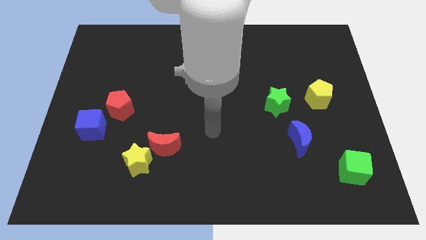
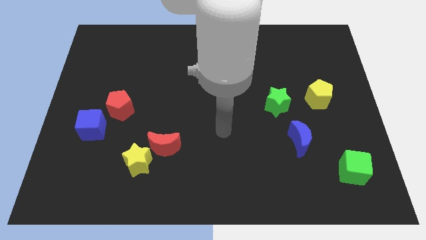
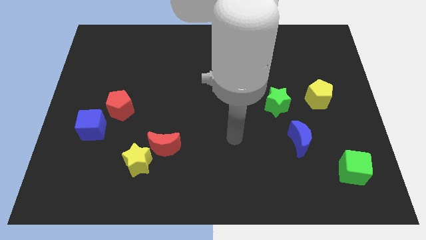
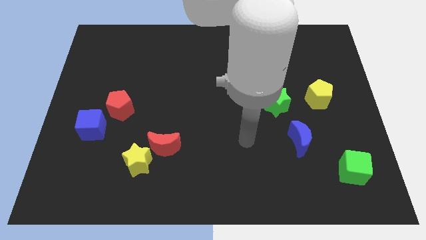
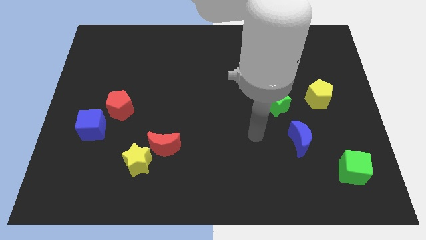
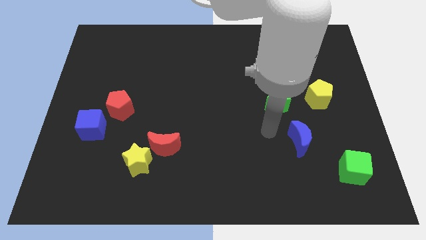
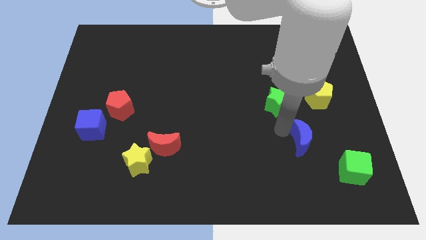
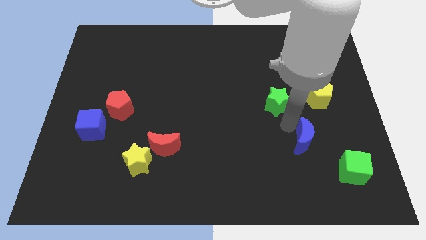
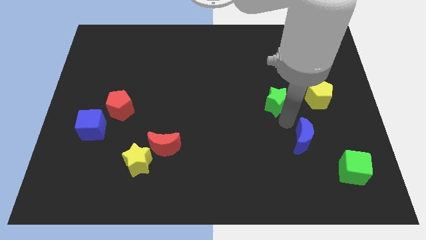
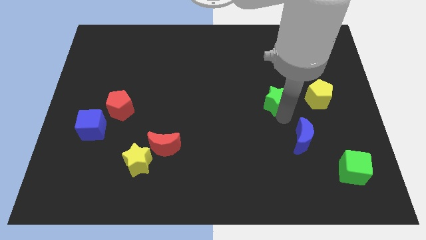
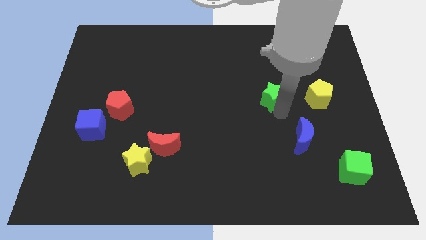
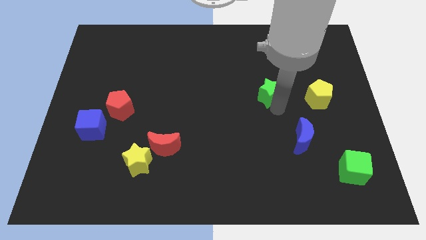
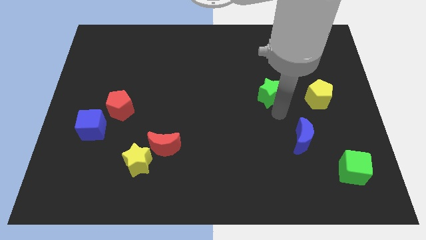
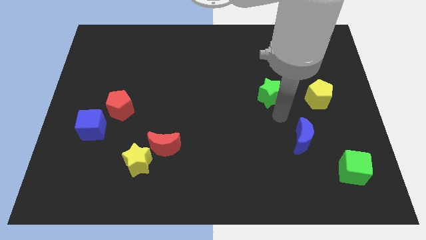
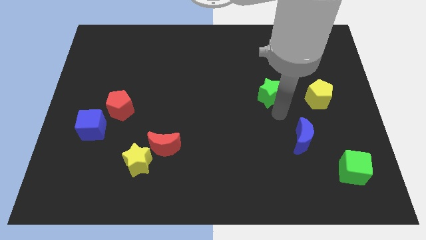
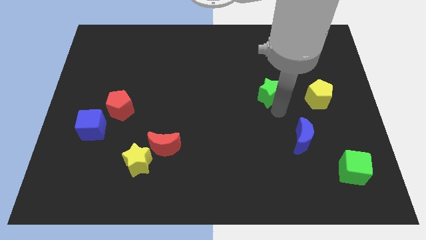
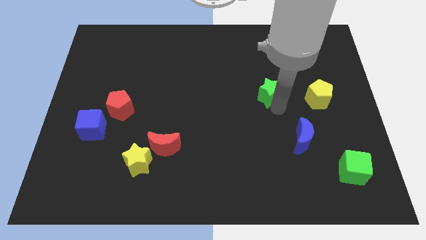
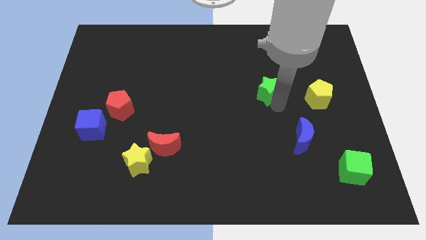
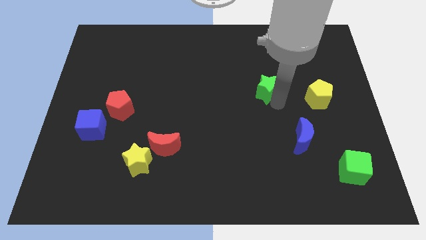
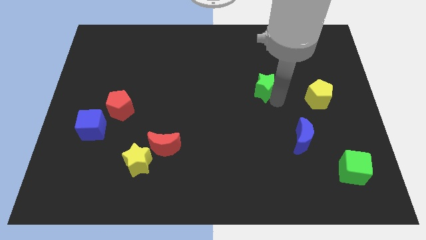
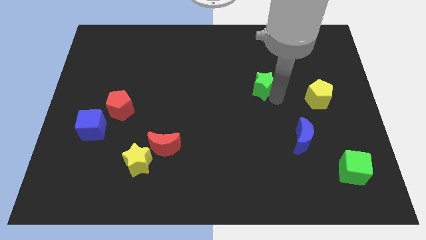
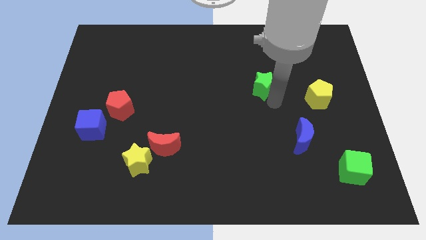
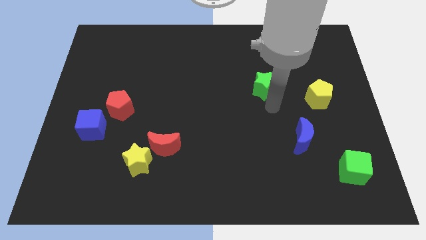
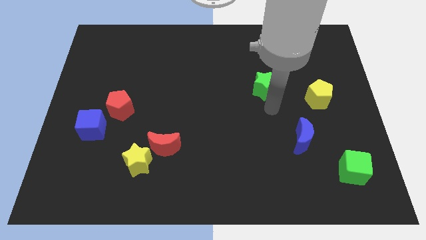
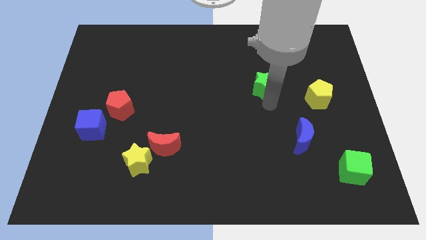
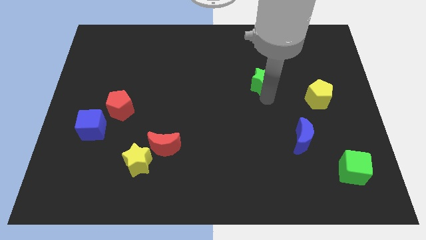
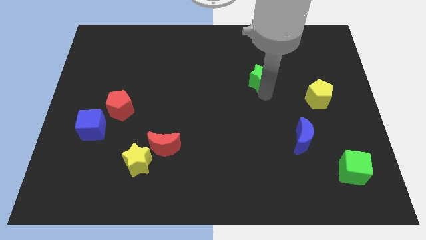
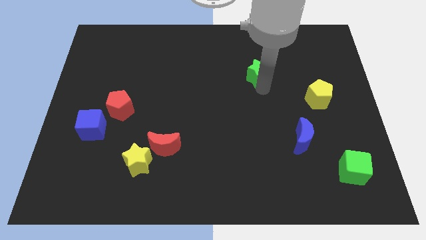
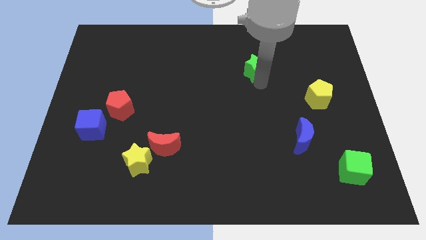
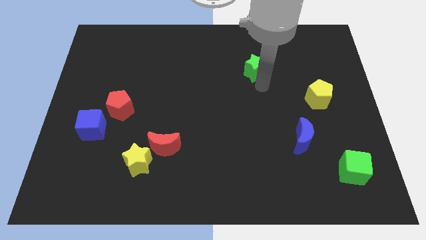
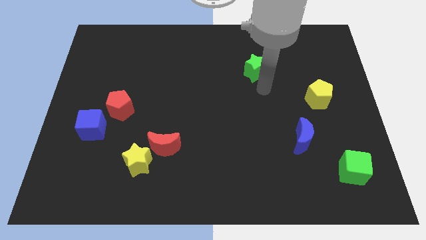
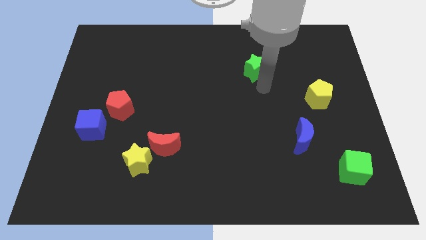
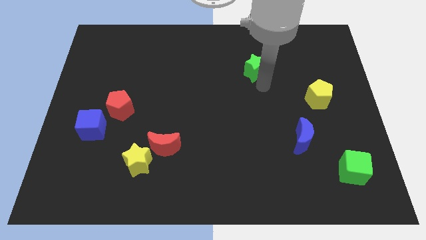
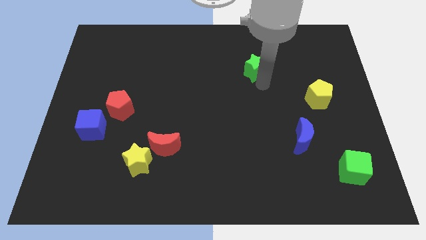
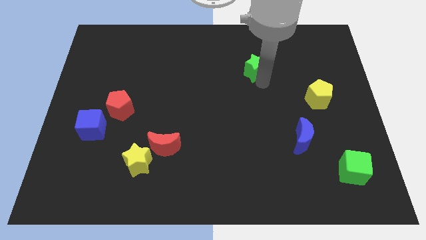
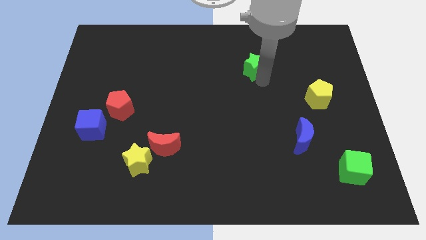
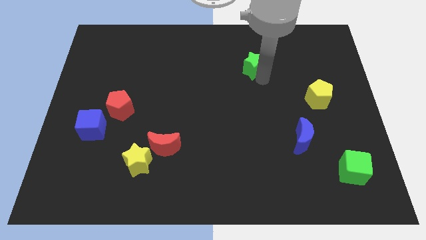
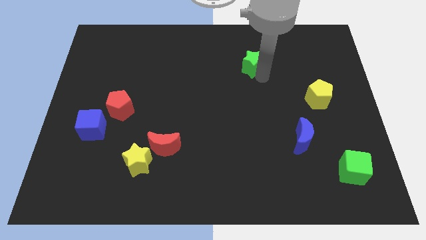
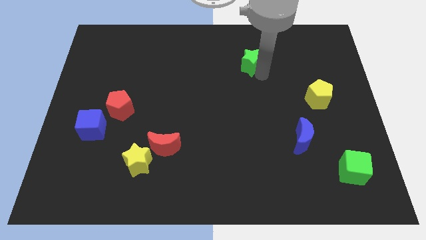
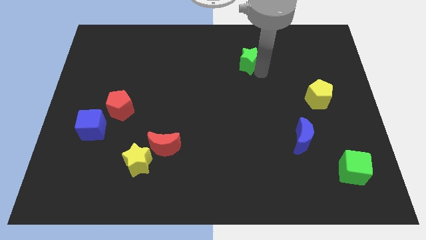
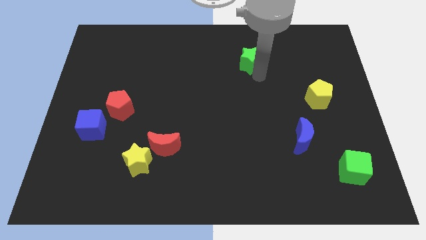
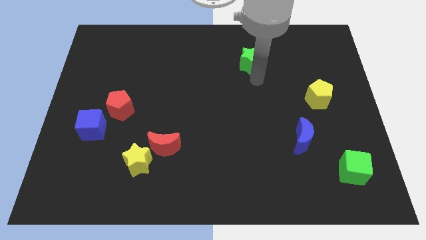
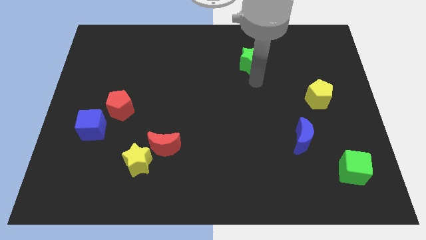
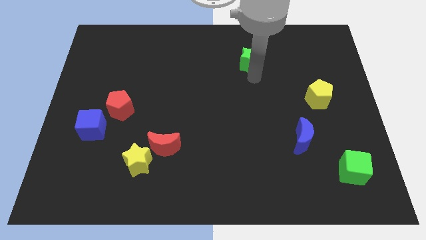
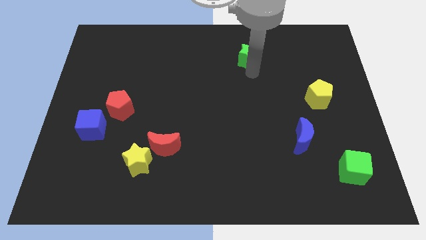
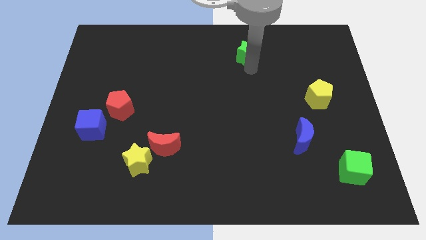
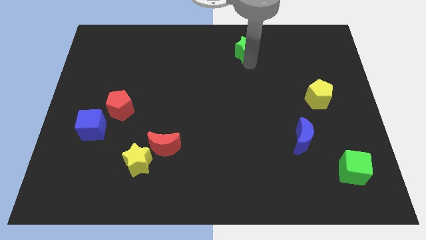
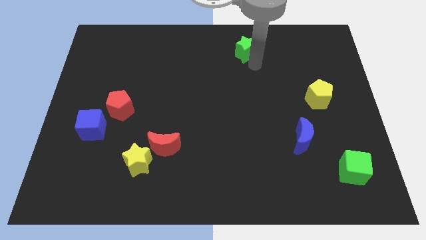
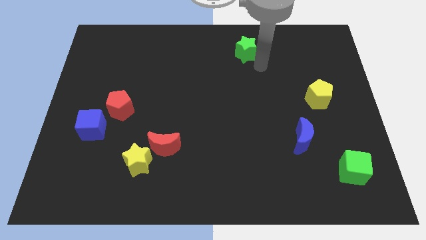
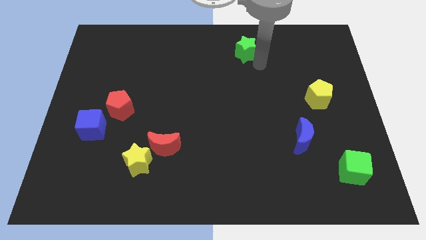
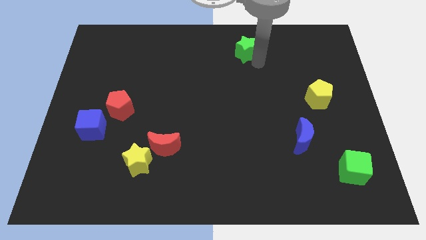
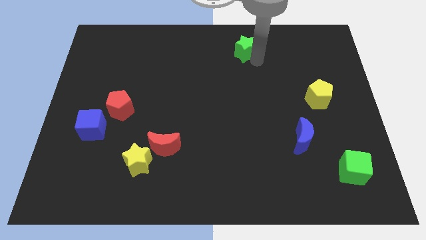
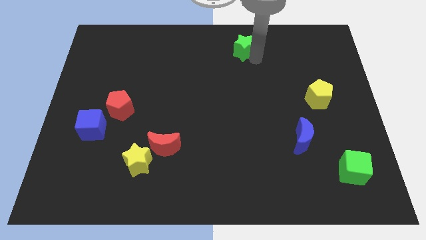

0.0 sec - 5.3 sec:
push the green star to the top

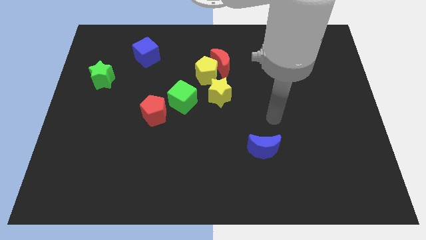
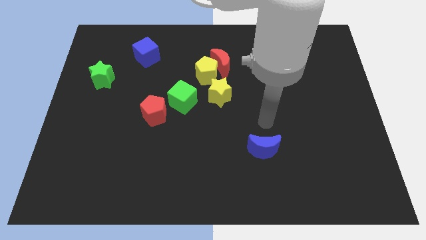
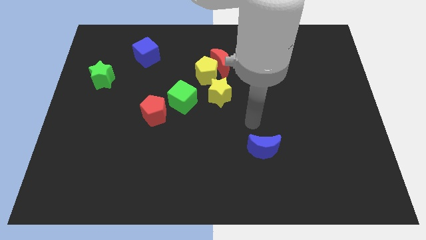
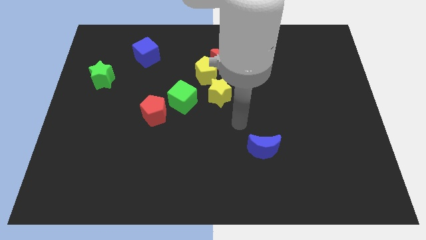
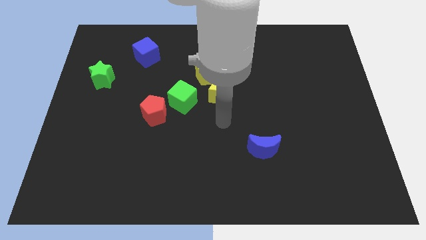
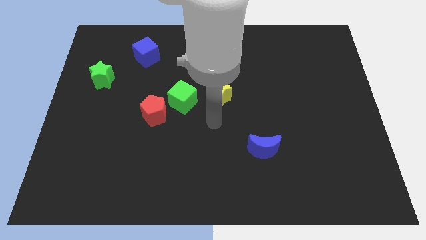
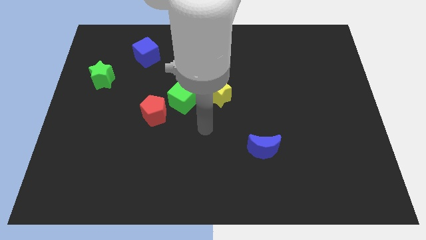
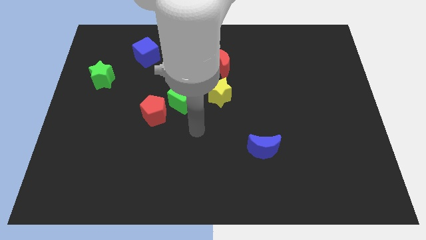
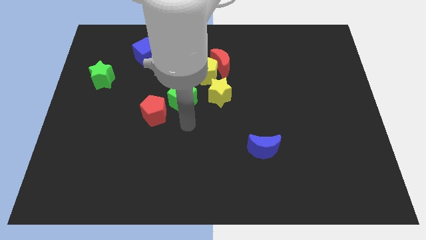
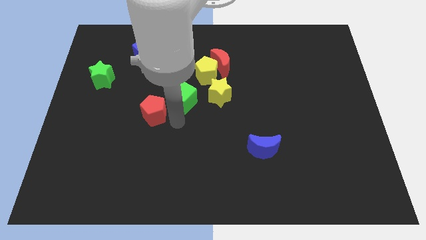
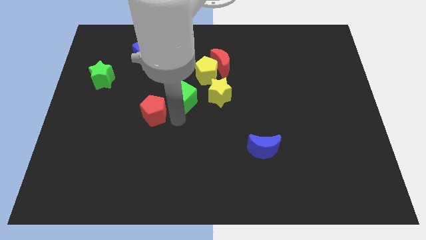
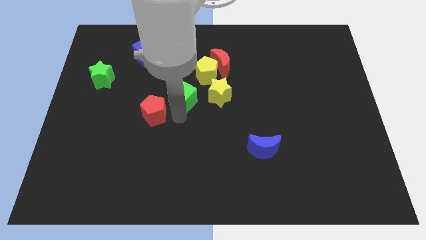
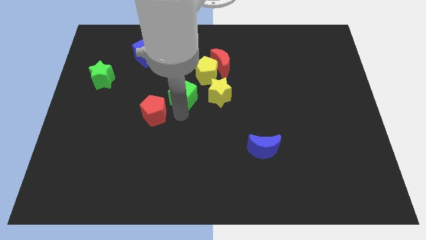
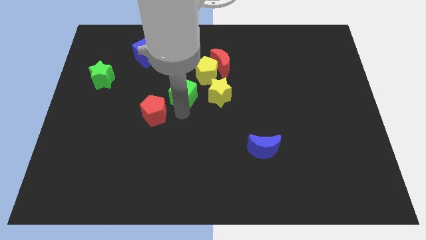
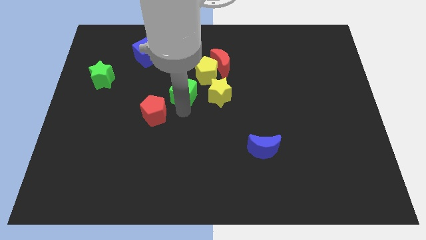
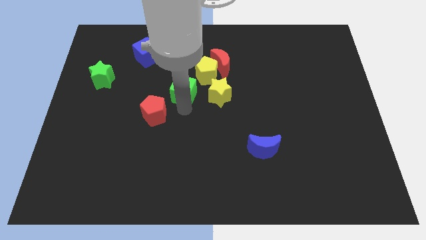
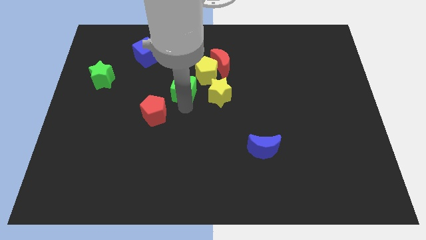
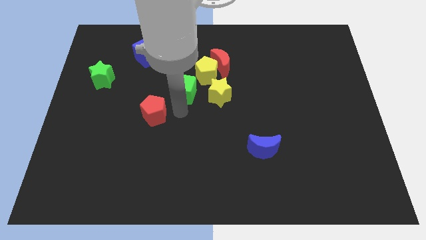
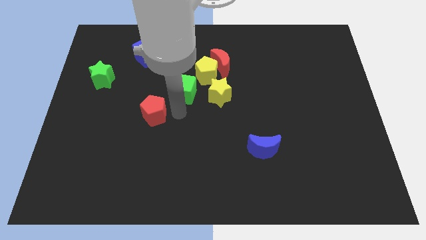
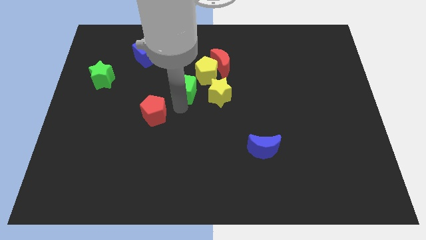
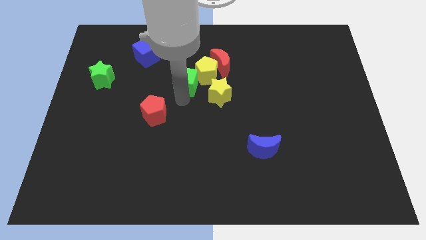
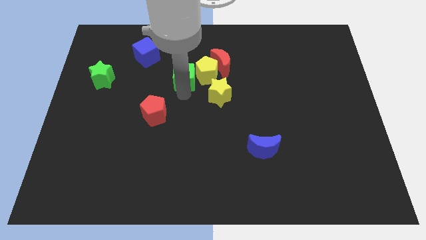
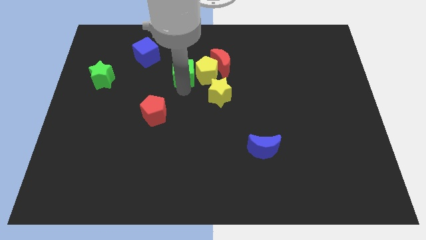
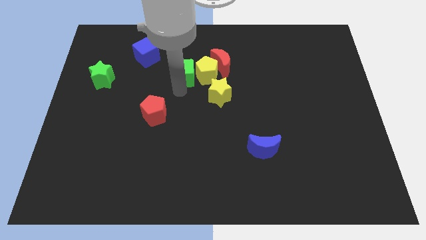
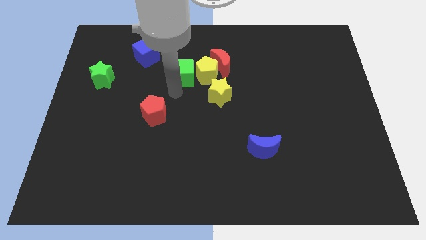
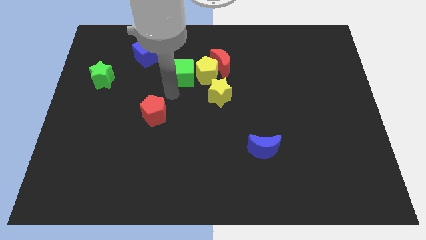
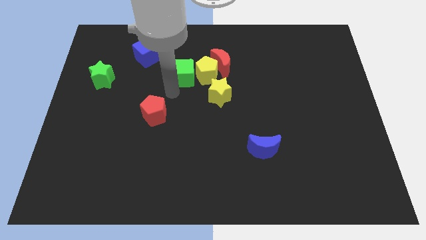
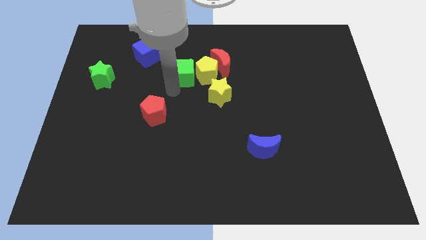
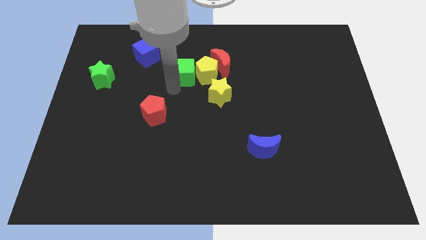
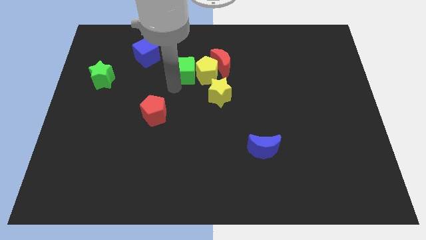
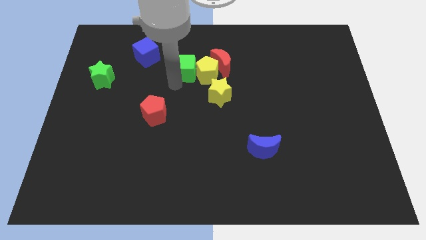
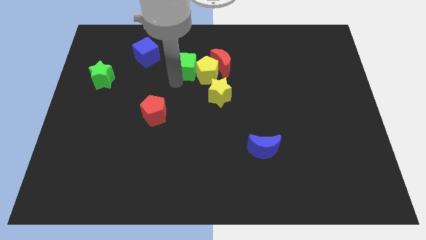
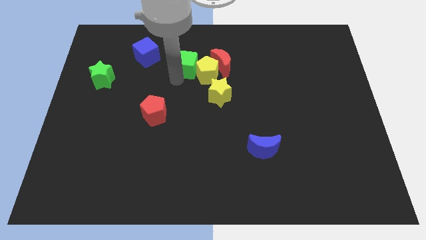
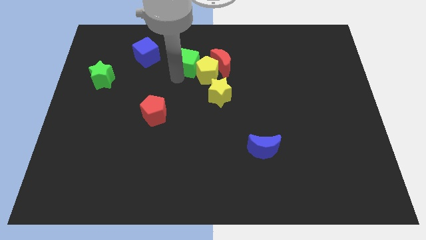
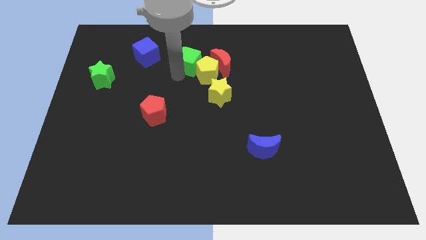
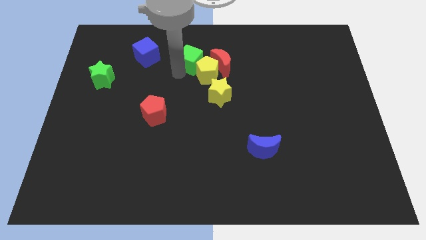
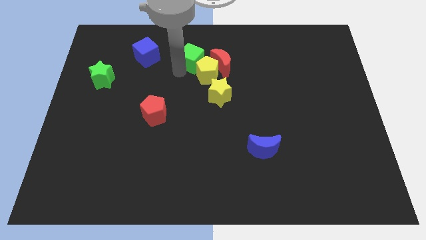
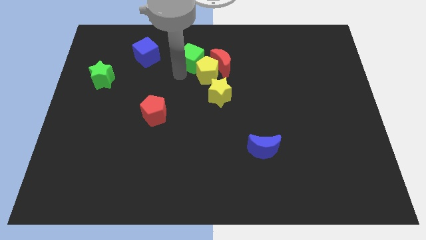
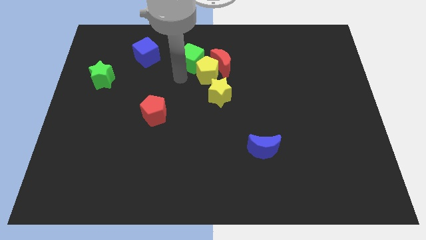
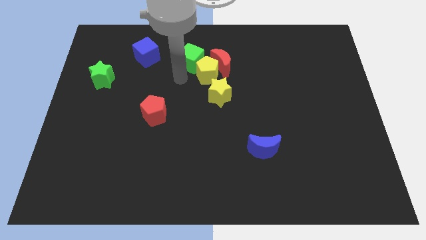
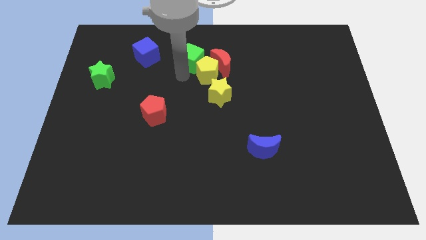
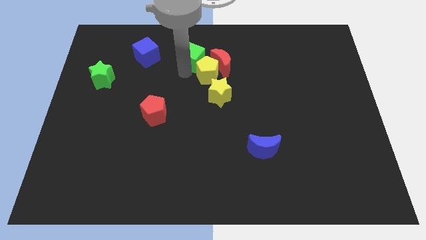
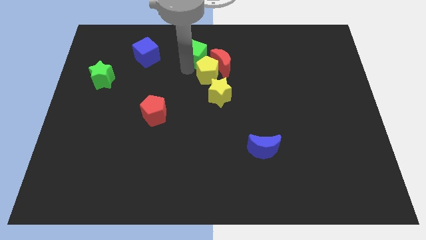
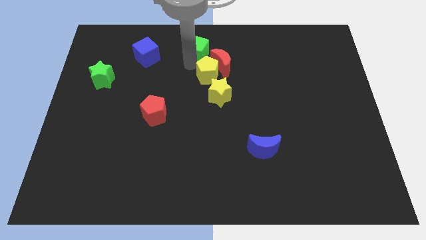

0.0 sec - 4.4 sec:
slide the green cube to the top
